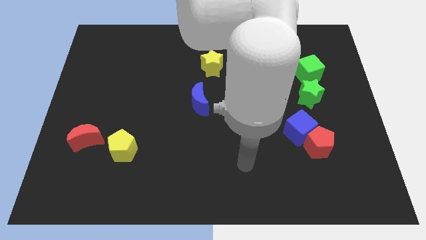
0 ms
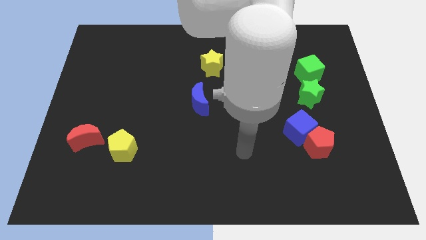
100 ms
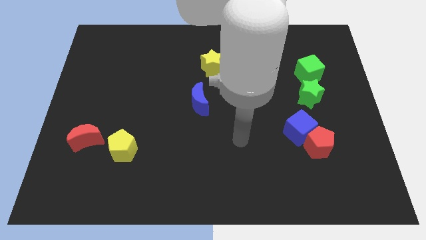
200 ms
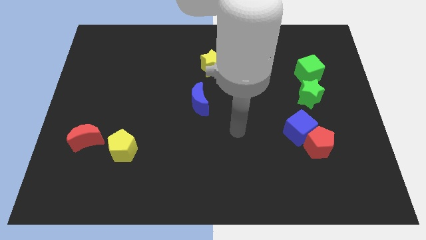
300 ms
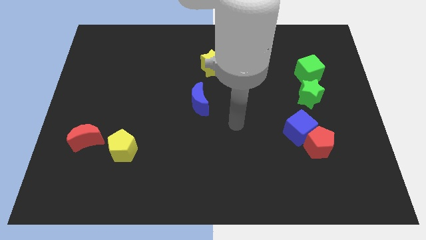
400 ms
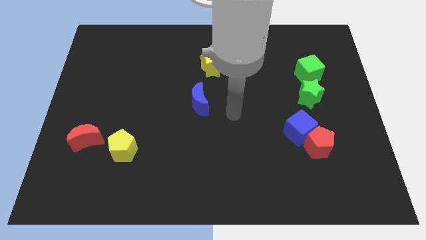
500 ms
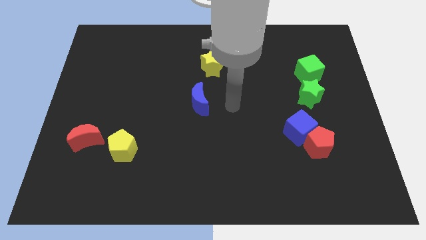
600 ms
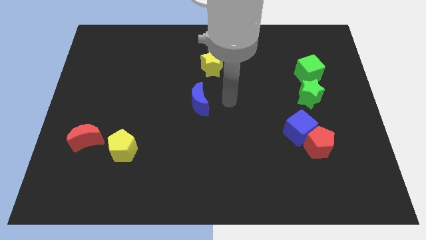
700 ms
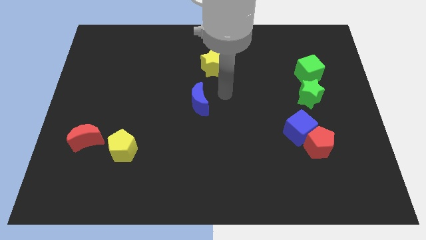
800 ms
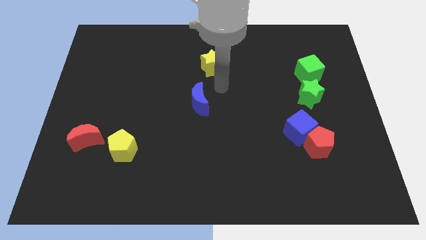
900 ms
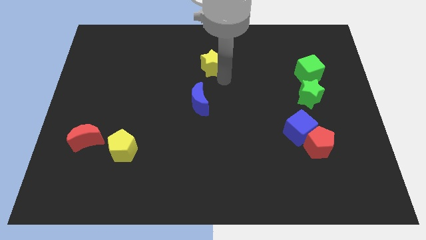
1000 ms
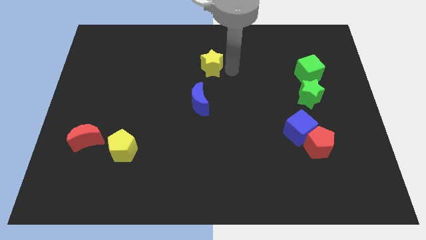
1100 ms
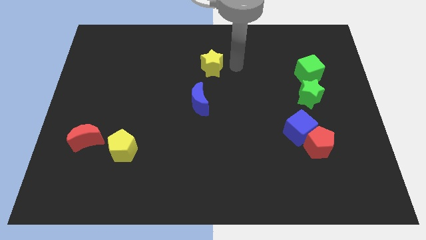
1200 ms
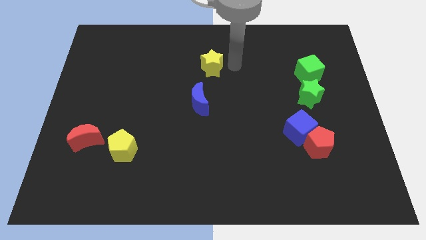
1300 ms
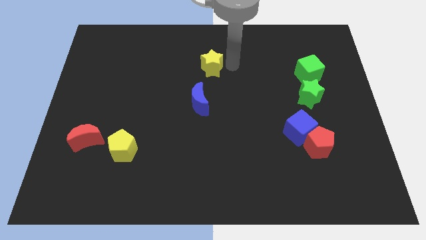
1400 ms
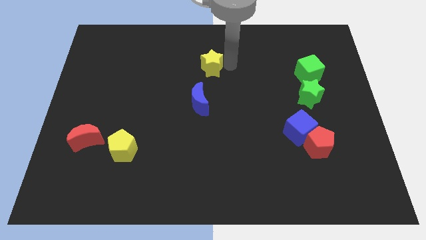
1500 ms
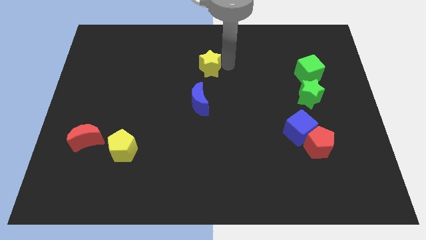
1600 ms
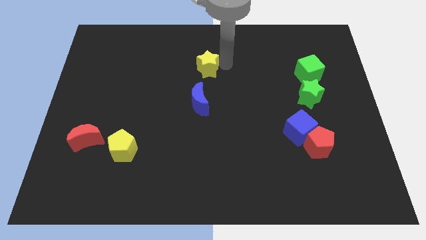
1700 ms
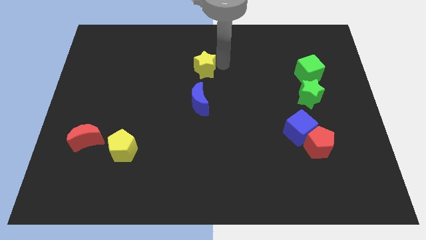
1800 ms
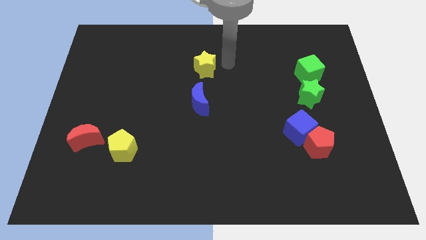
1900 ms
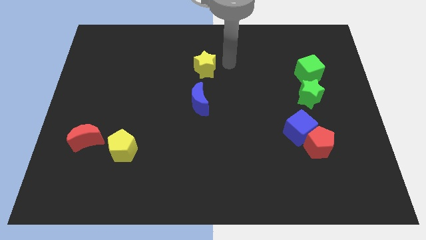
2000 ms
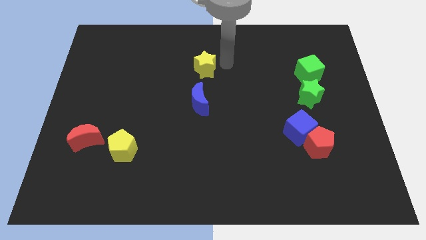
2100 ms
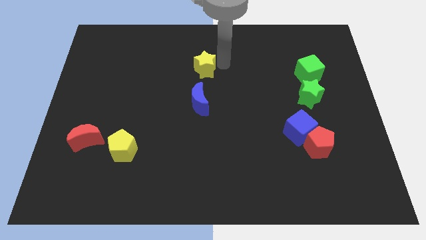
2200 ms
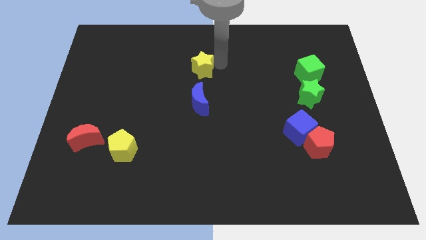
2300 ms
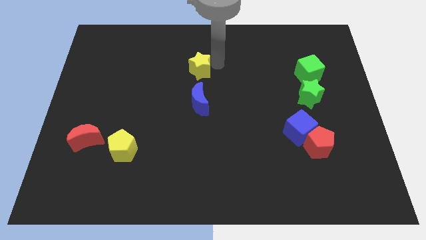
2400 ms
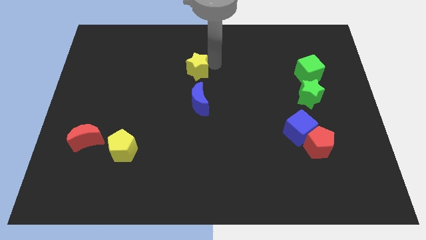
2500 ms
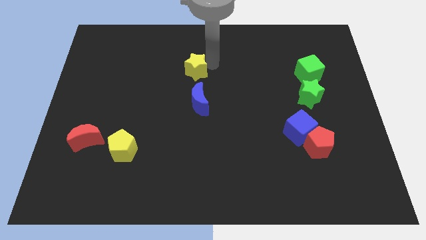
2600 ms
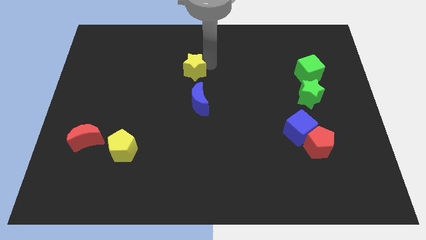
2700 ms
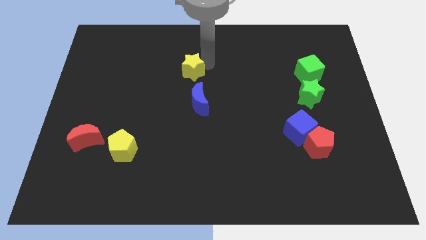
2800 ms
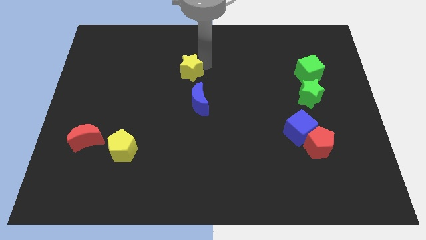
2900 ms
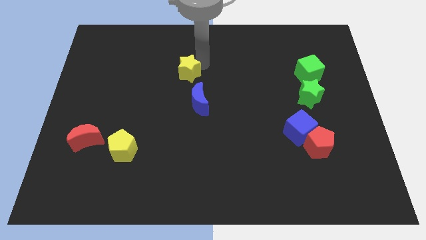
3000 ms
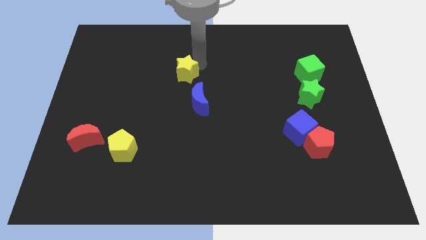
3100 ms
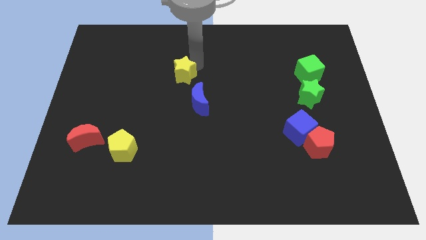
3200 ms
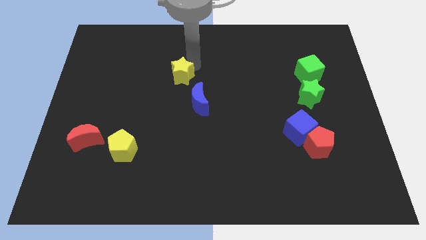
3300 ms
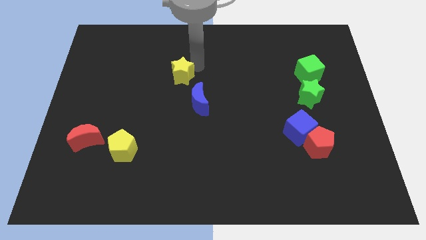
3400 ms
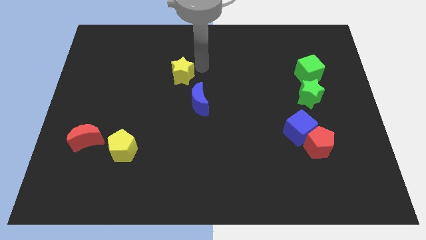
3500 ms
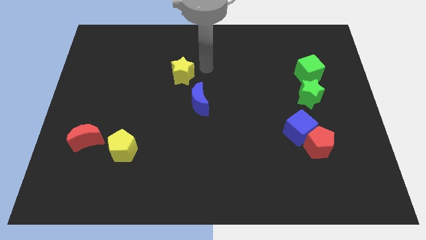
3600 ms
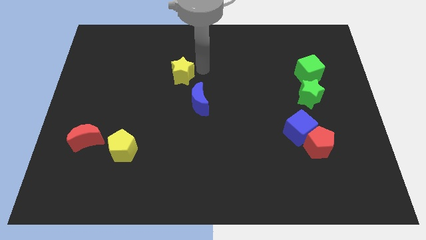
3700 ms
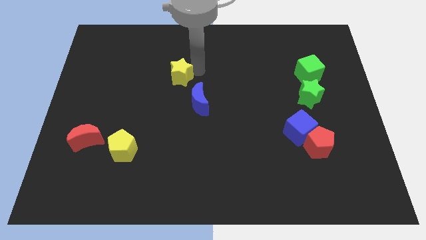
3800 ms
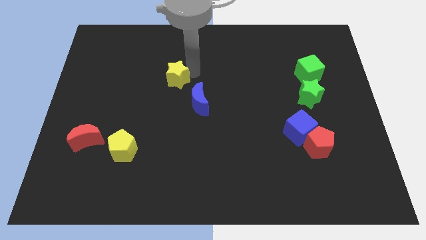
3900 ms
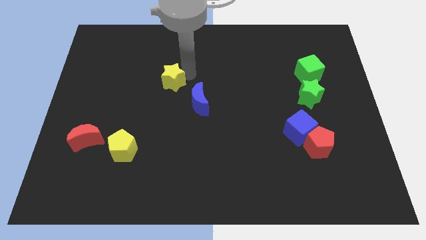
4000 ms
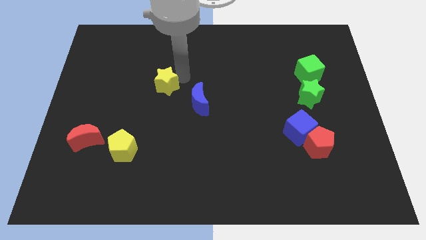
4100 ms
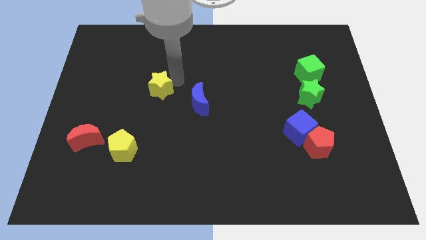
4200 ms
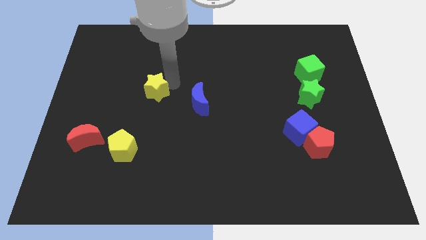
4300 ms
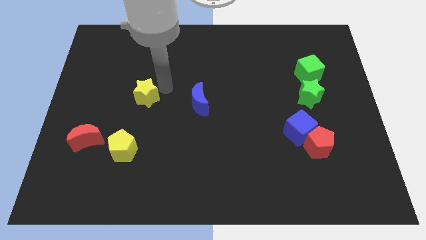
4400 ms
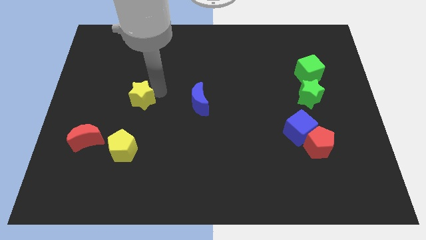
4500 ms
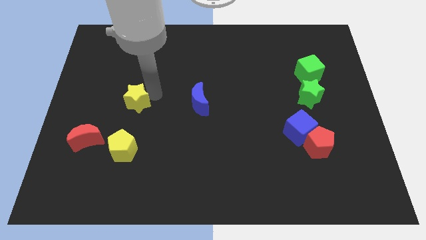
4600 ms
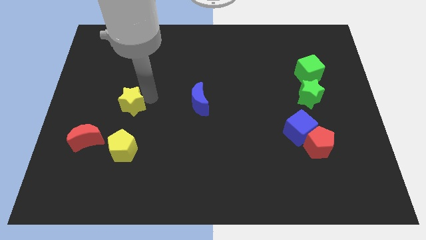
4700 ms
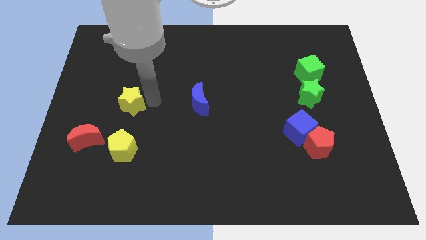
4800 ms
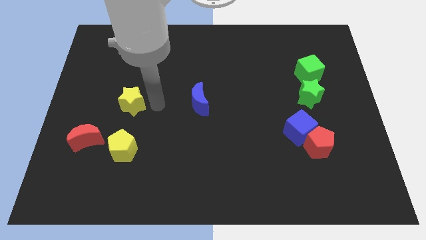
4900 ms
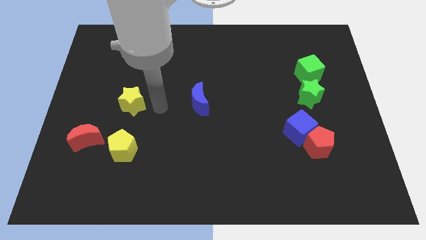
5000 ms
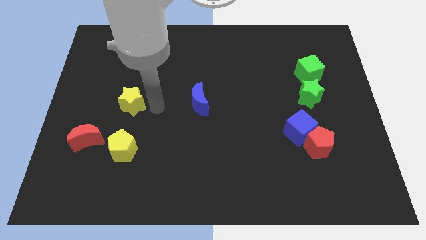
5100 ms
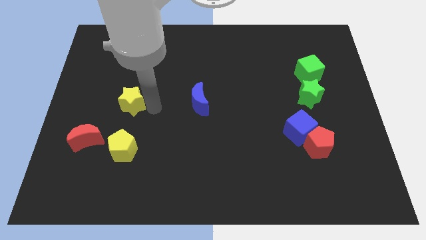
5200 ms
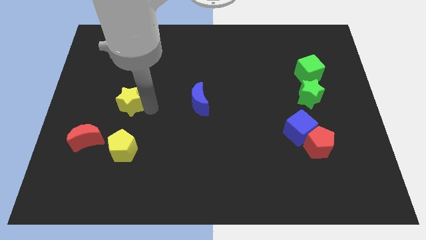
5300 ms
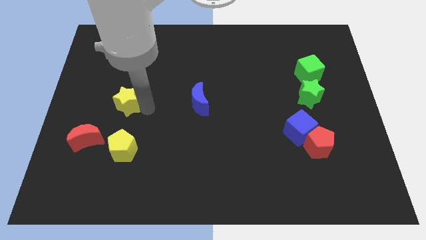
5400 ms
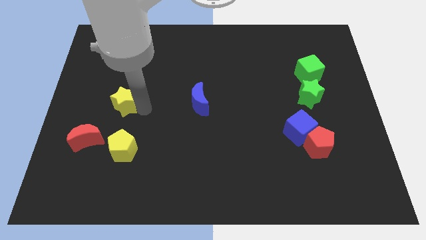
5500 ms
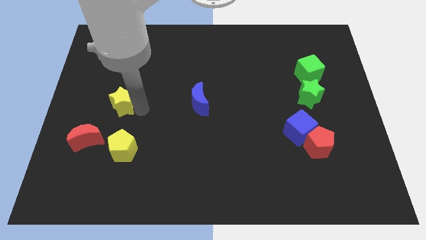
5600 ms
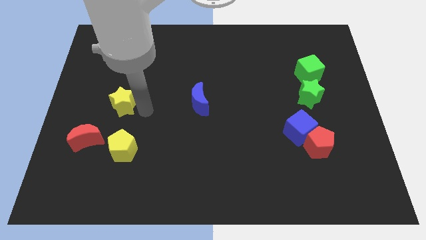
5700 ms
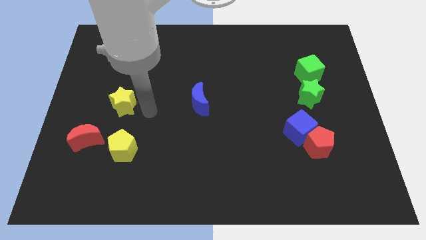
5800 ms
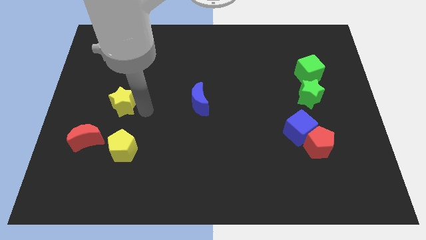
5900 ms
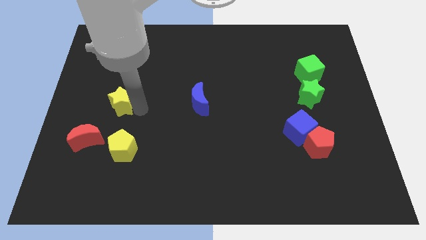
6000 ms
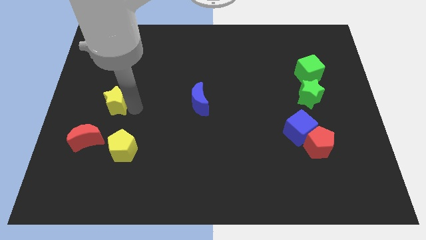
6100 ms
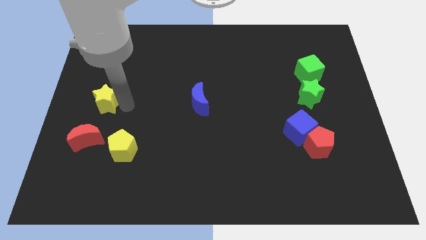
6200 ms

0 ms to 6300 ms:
move the yellow star to the center left
